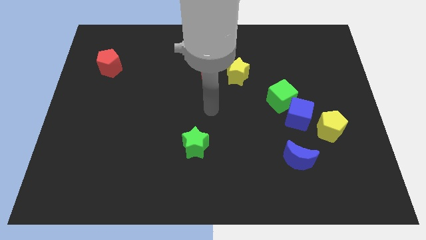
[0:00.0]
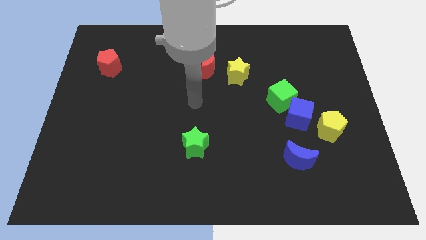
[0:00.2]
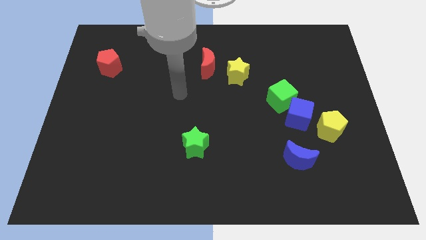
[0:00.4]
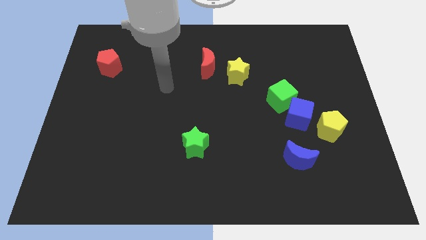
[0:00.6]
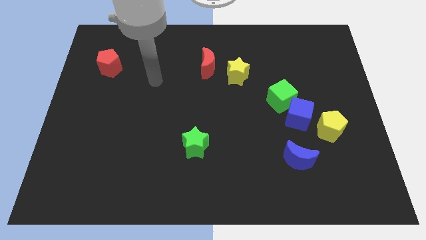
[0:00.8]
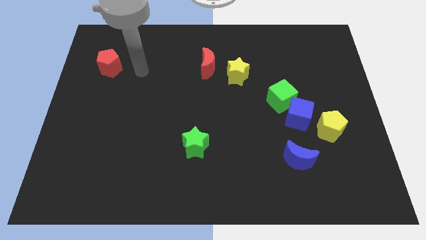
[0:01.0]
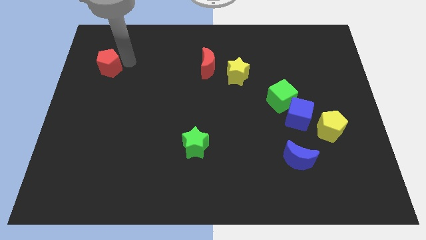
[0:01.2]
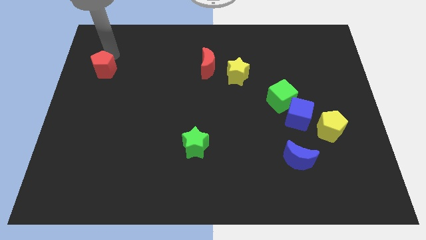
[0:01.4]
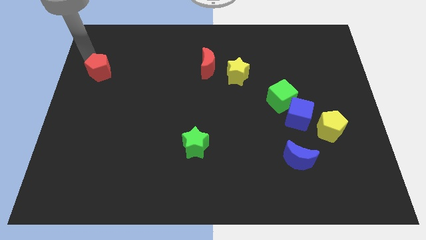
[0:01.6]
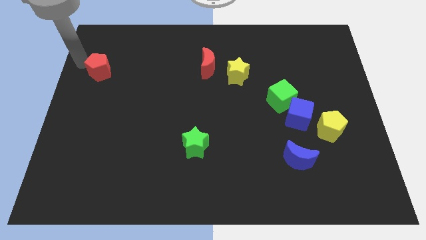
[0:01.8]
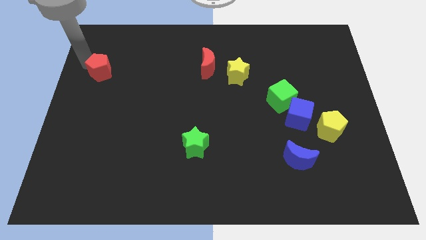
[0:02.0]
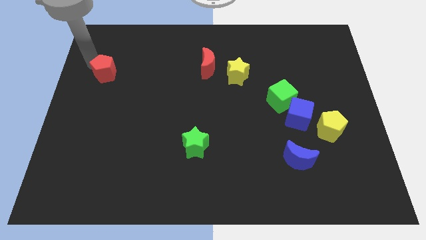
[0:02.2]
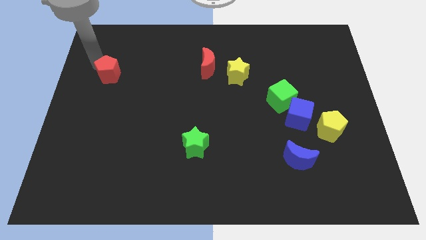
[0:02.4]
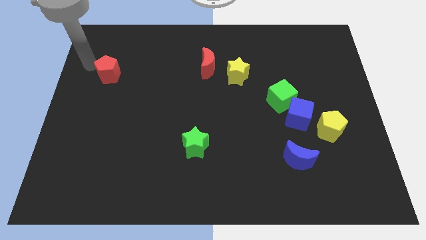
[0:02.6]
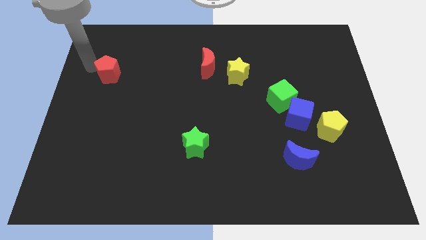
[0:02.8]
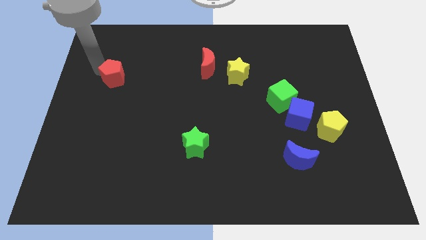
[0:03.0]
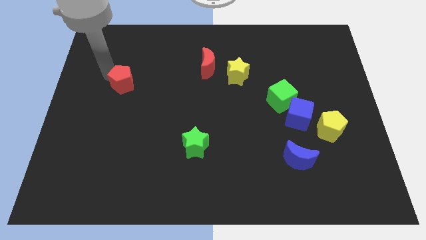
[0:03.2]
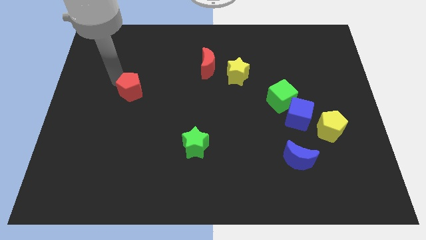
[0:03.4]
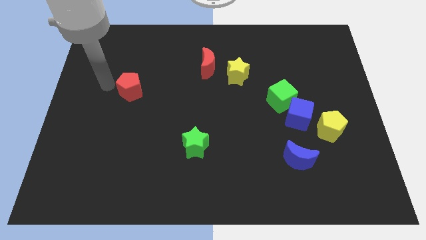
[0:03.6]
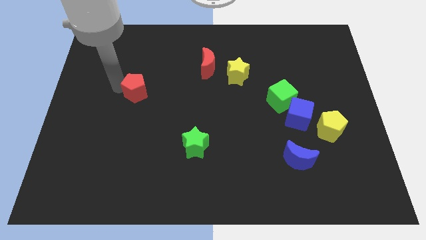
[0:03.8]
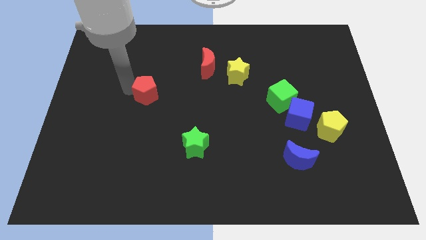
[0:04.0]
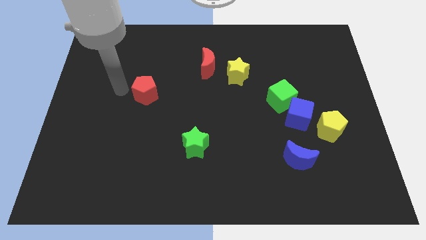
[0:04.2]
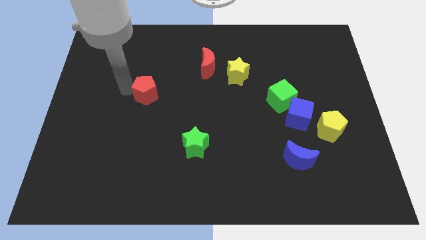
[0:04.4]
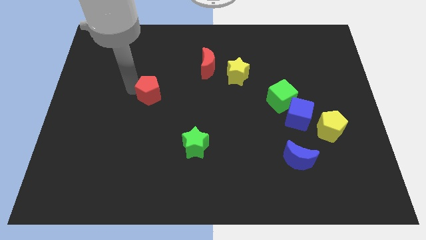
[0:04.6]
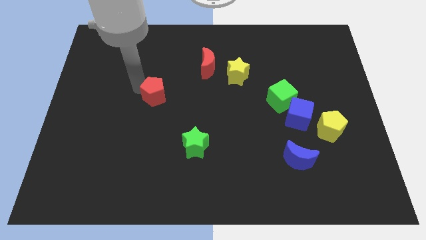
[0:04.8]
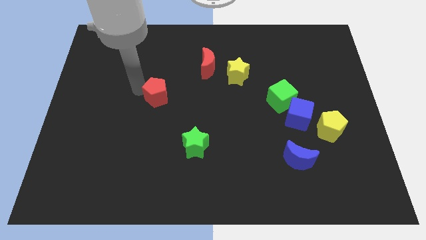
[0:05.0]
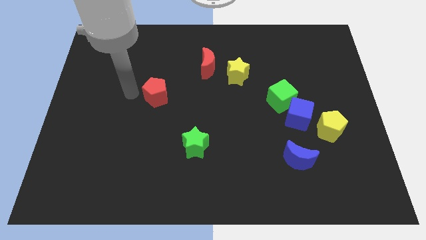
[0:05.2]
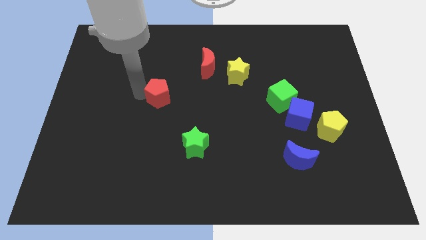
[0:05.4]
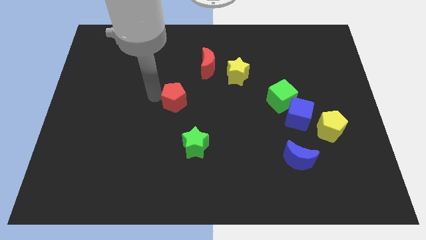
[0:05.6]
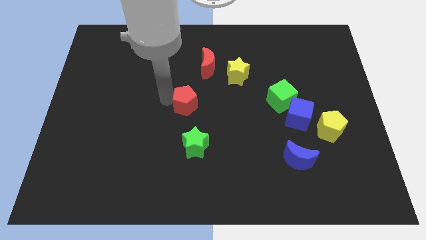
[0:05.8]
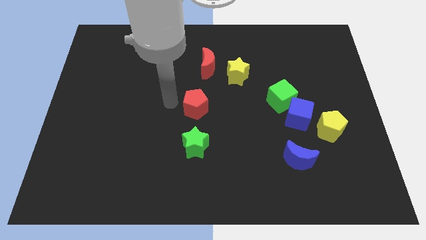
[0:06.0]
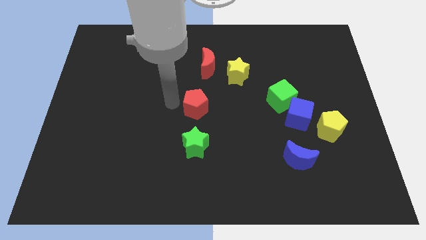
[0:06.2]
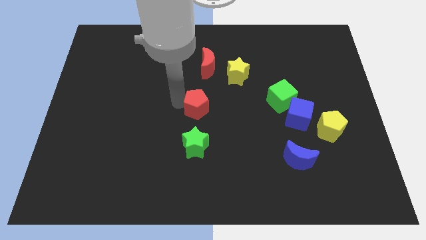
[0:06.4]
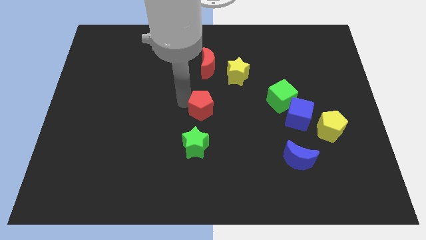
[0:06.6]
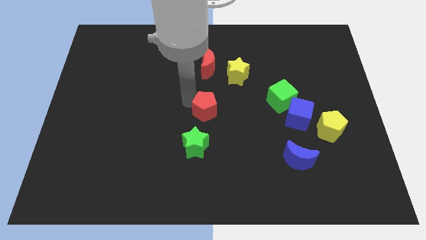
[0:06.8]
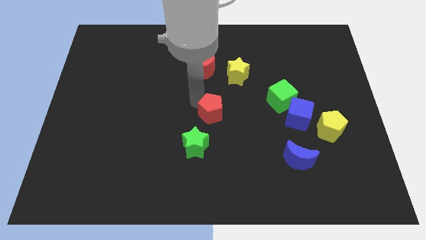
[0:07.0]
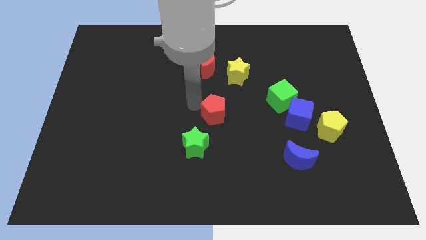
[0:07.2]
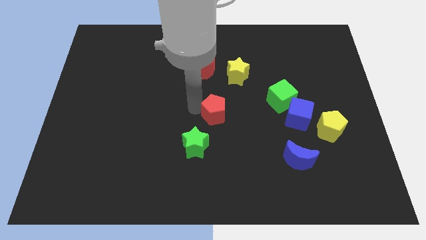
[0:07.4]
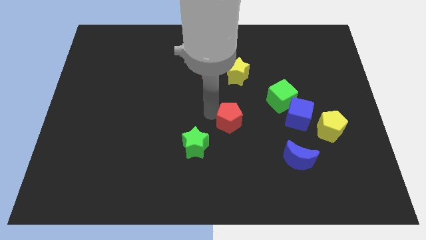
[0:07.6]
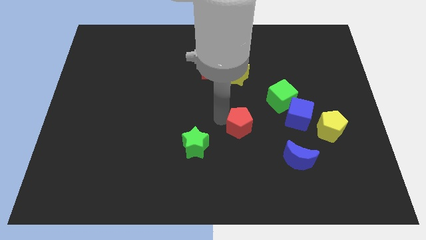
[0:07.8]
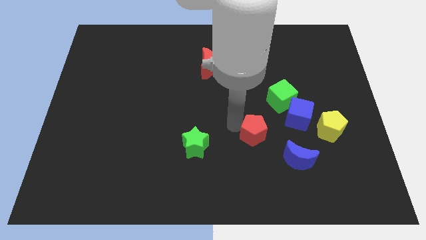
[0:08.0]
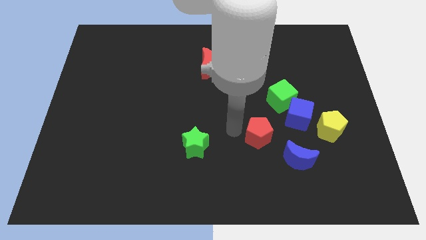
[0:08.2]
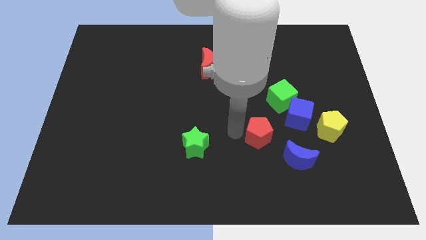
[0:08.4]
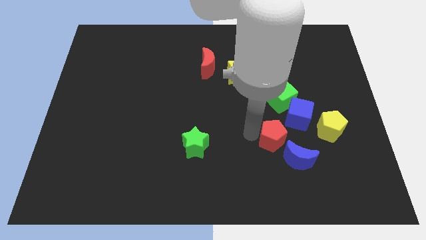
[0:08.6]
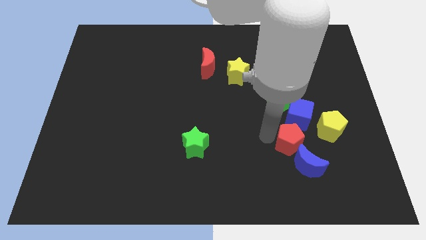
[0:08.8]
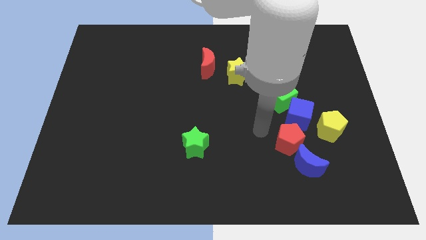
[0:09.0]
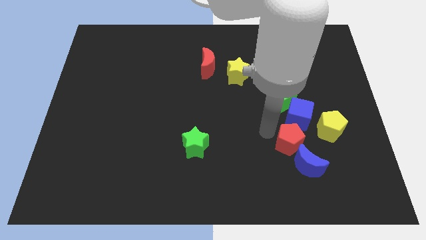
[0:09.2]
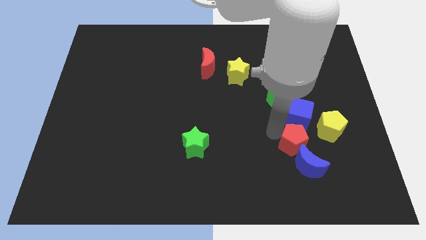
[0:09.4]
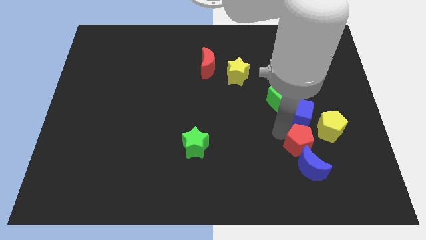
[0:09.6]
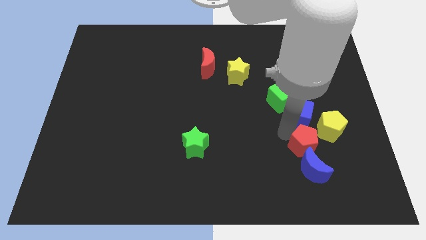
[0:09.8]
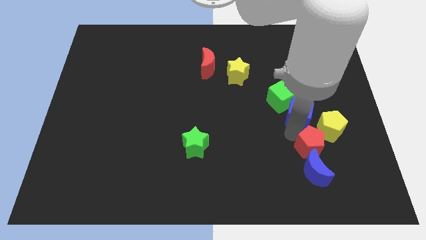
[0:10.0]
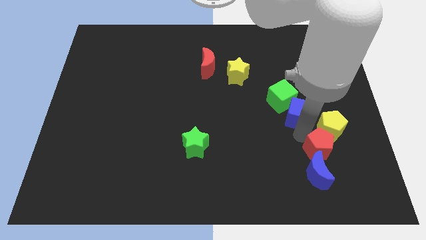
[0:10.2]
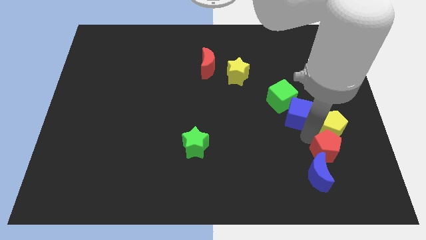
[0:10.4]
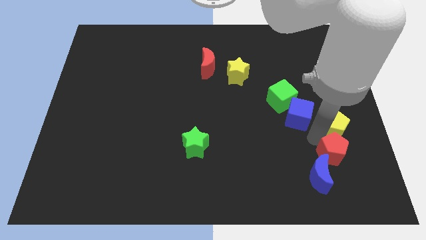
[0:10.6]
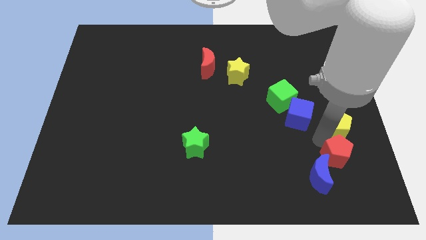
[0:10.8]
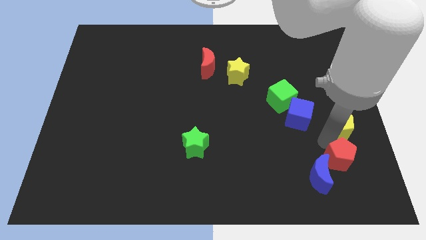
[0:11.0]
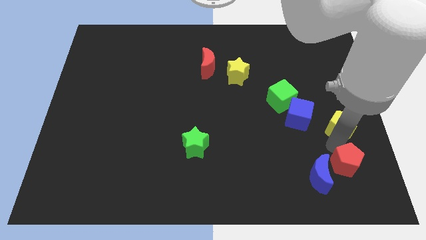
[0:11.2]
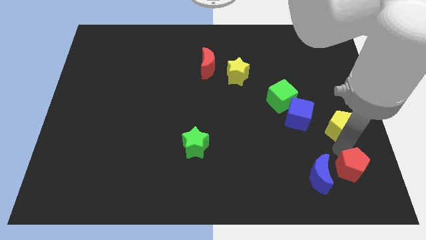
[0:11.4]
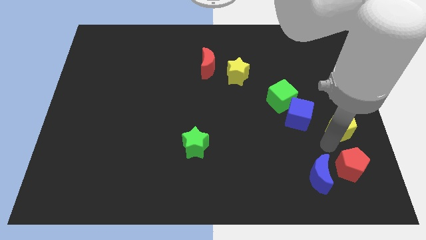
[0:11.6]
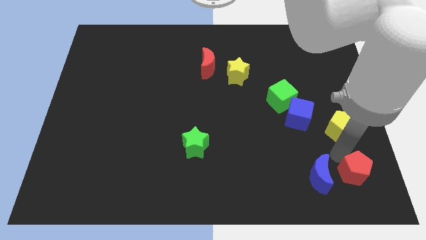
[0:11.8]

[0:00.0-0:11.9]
move the red pentagon to the bottom right of the board
